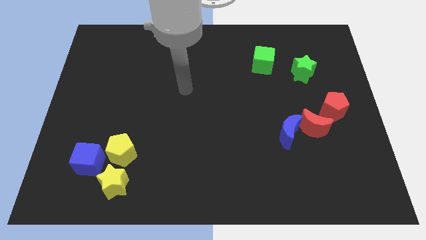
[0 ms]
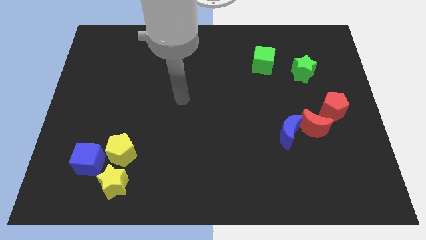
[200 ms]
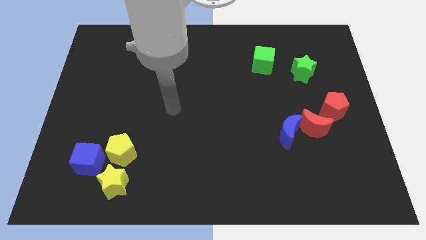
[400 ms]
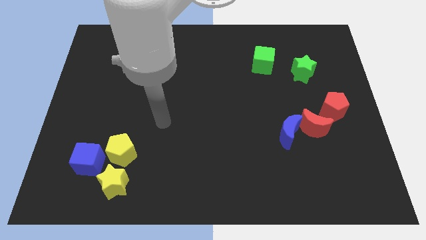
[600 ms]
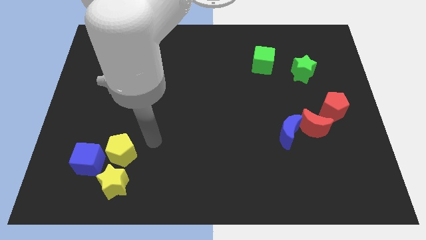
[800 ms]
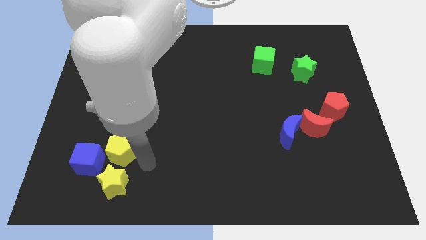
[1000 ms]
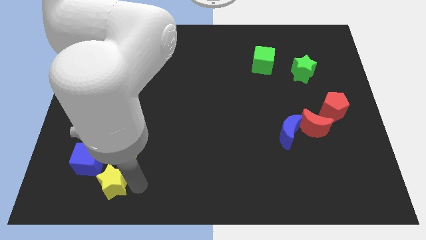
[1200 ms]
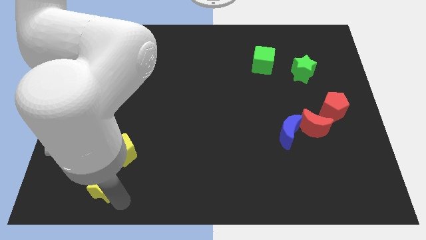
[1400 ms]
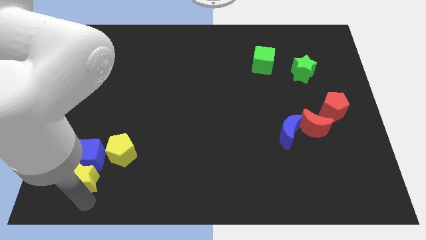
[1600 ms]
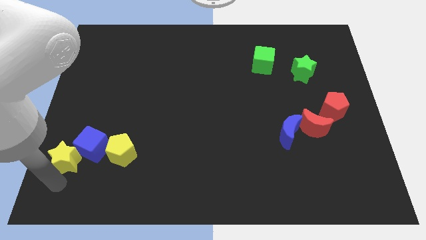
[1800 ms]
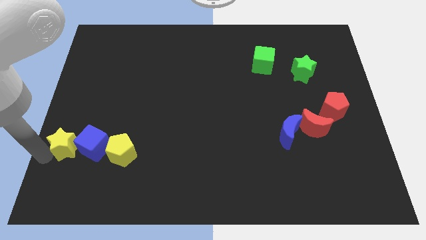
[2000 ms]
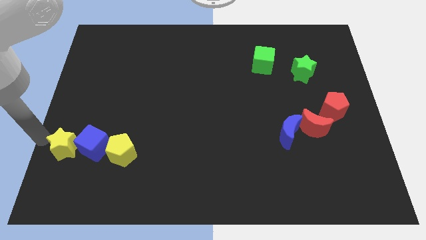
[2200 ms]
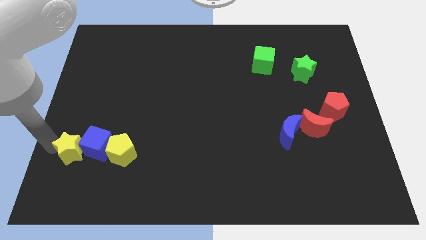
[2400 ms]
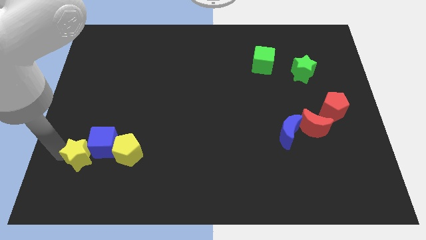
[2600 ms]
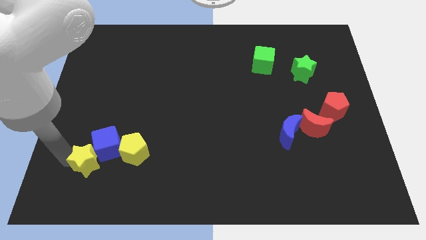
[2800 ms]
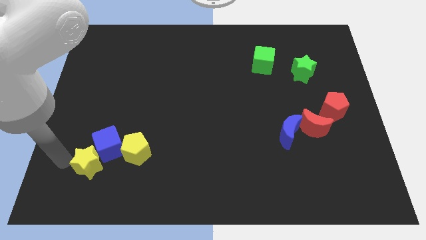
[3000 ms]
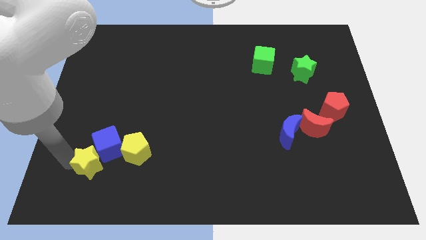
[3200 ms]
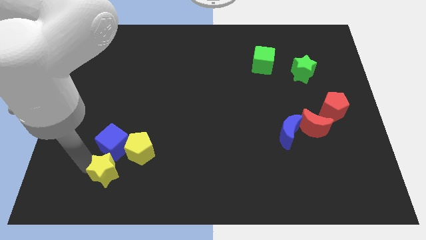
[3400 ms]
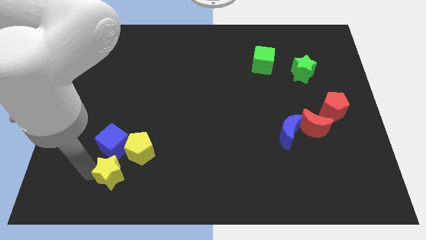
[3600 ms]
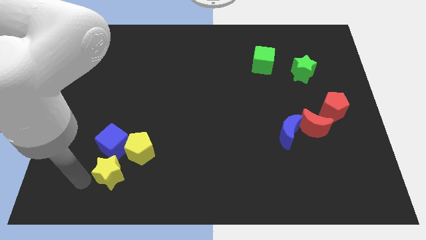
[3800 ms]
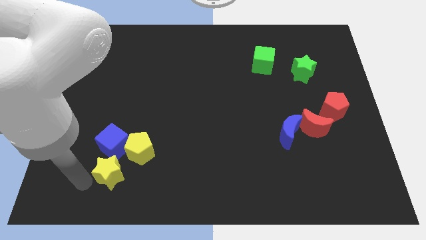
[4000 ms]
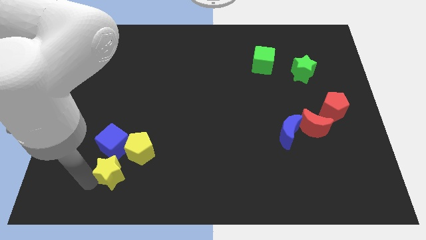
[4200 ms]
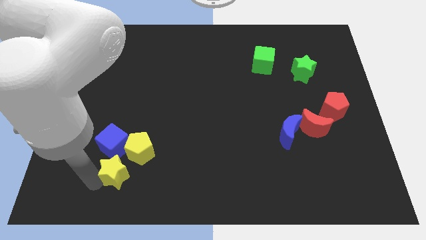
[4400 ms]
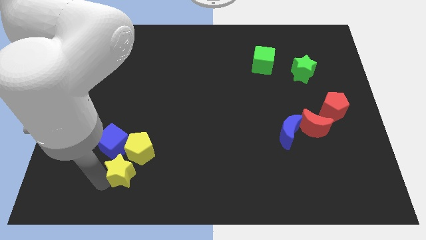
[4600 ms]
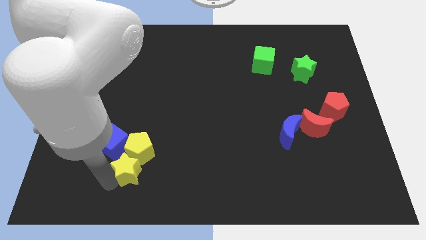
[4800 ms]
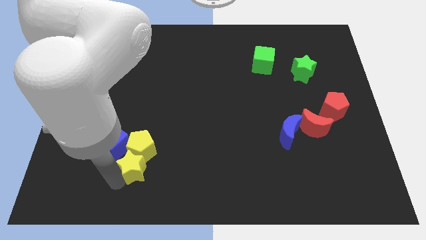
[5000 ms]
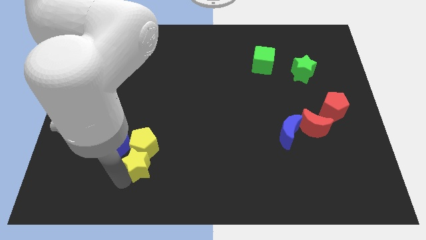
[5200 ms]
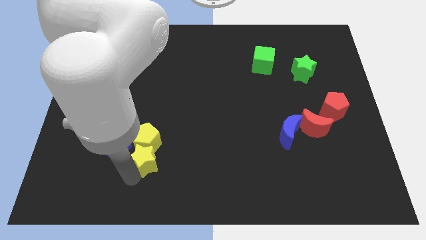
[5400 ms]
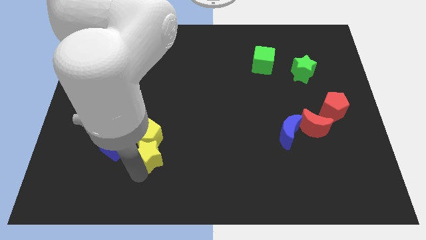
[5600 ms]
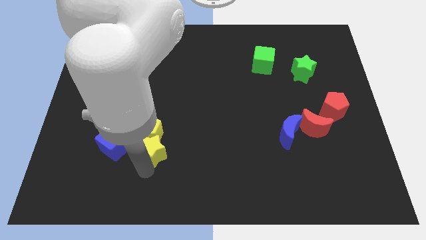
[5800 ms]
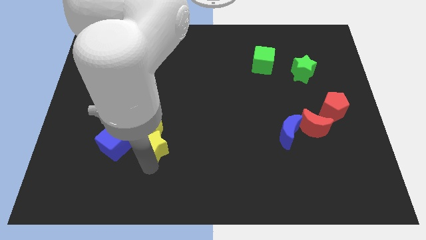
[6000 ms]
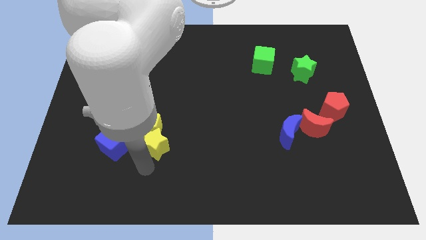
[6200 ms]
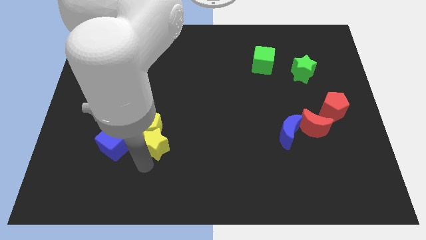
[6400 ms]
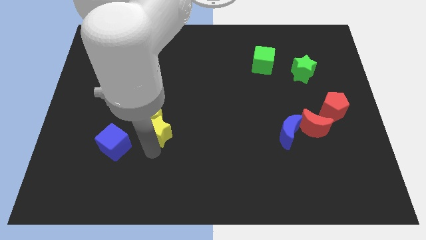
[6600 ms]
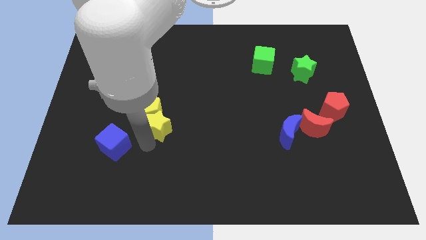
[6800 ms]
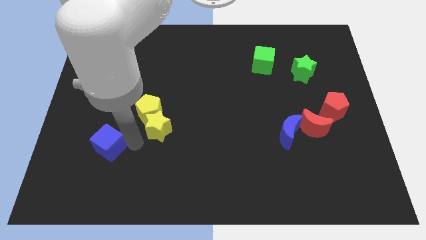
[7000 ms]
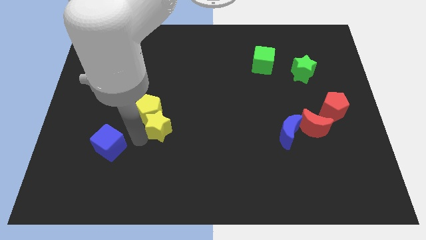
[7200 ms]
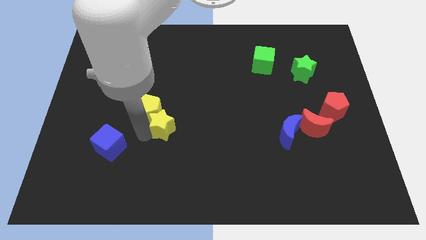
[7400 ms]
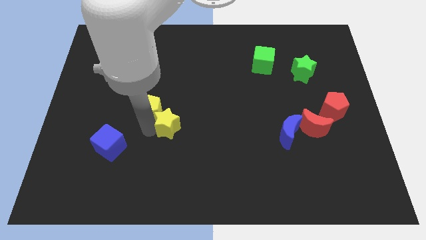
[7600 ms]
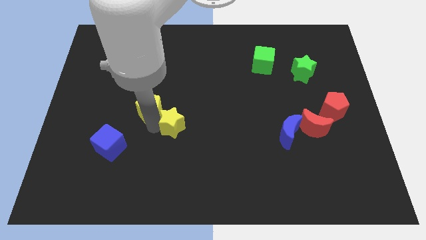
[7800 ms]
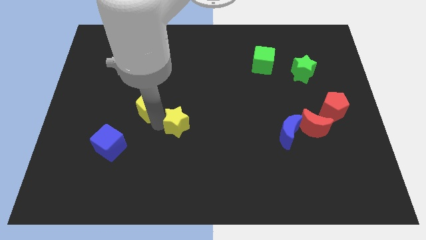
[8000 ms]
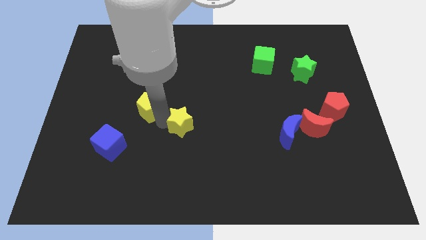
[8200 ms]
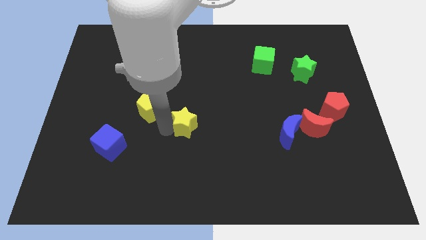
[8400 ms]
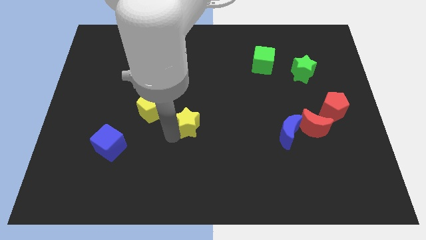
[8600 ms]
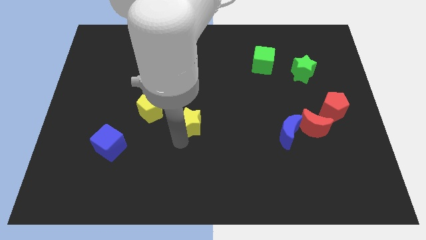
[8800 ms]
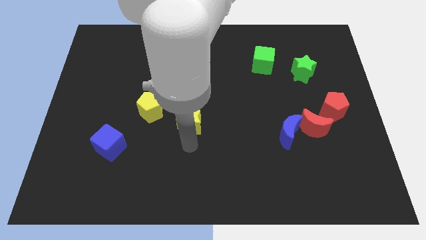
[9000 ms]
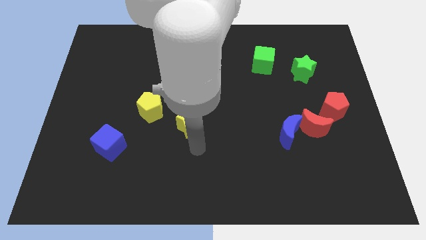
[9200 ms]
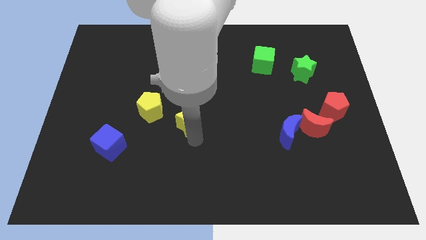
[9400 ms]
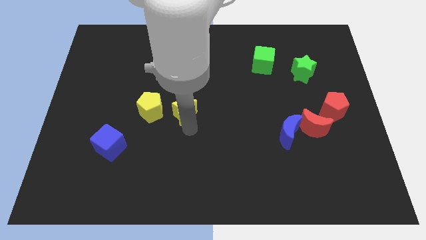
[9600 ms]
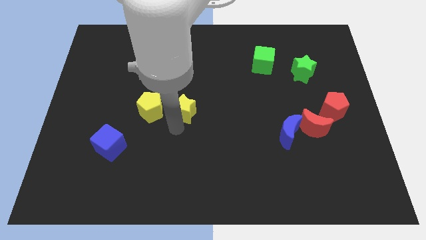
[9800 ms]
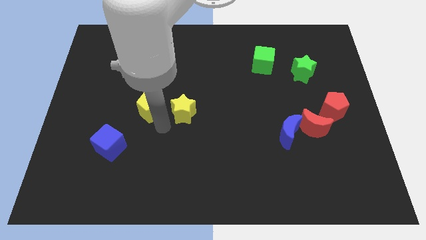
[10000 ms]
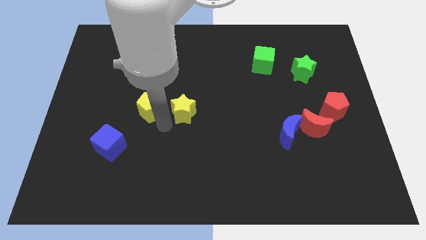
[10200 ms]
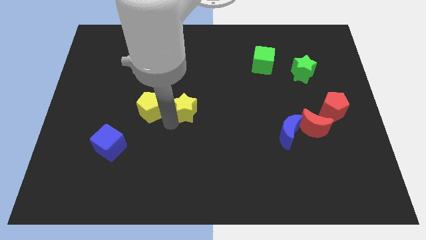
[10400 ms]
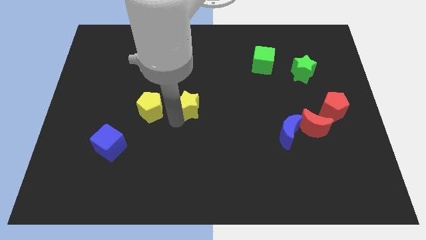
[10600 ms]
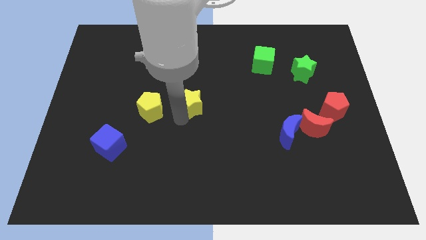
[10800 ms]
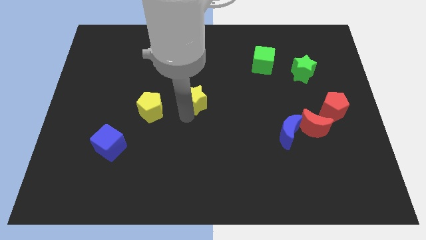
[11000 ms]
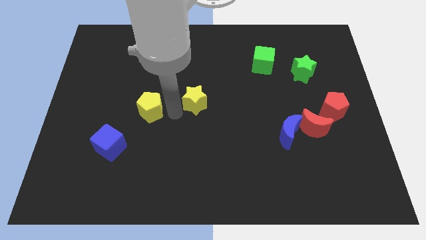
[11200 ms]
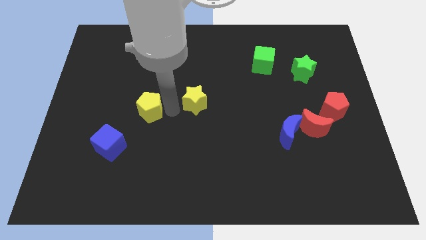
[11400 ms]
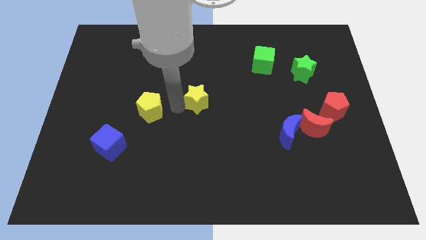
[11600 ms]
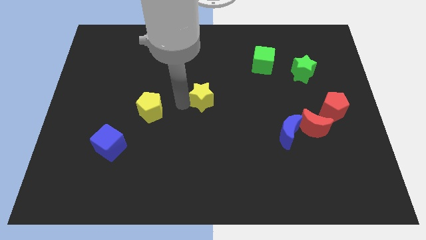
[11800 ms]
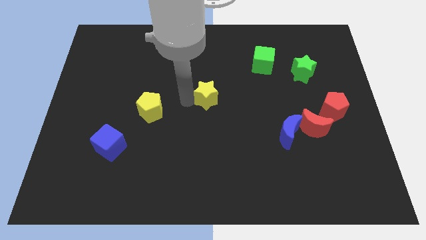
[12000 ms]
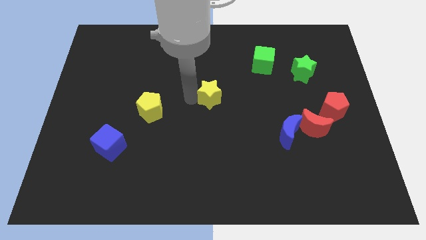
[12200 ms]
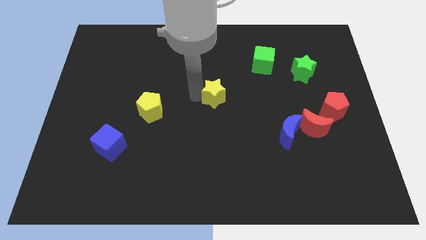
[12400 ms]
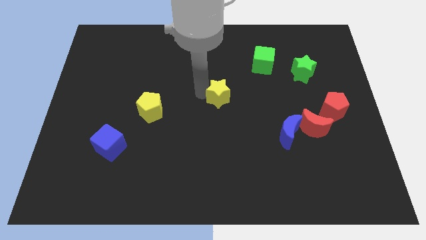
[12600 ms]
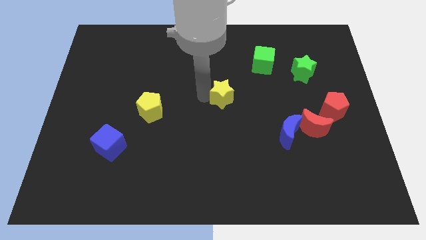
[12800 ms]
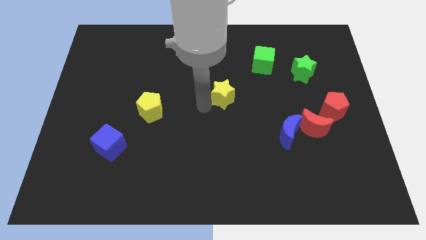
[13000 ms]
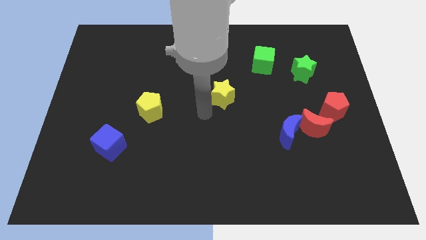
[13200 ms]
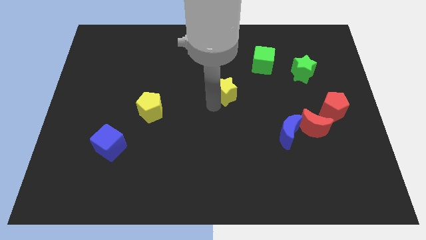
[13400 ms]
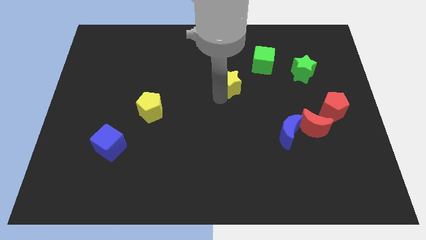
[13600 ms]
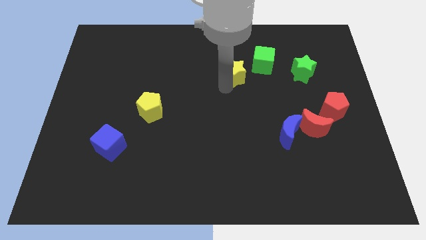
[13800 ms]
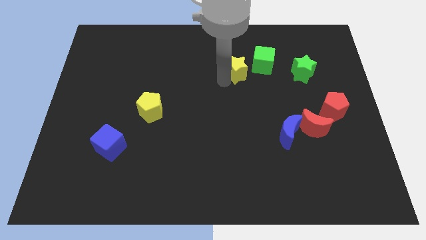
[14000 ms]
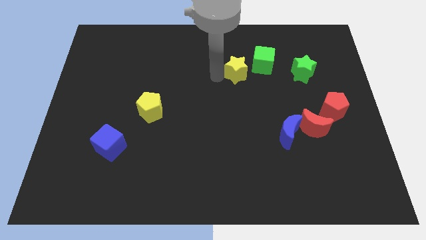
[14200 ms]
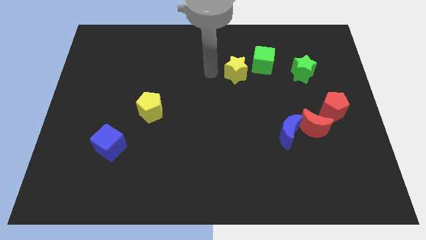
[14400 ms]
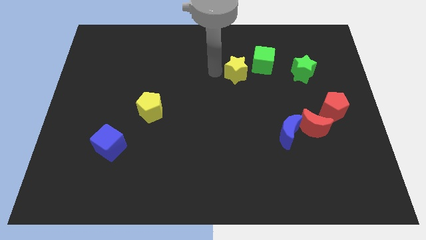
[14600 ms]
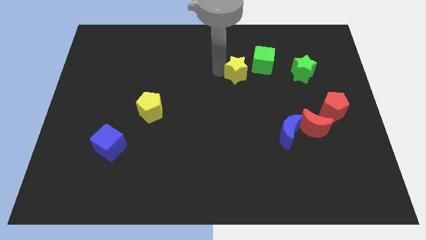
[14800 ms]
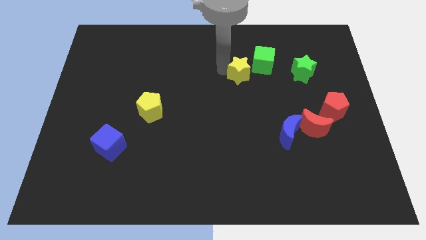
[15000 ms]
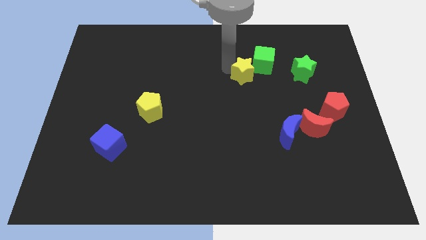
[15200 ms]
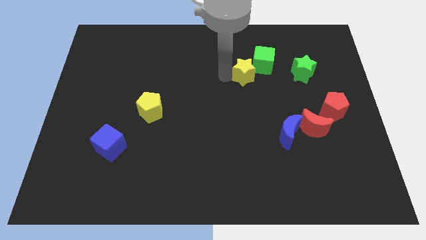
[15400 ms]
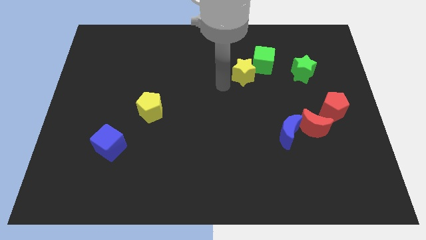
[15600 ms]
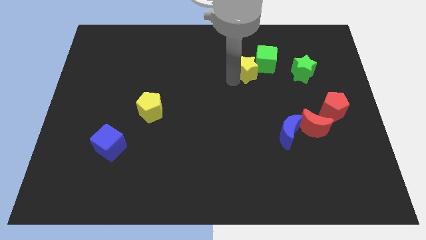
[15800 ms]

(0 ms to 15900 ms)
slide the yellow star close to the green cube
